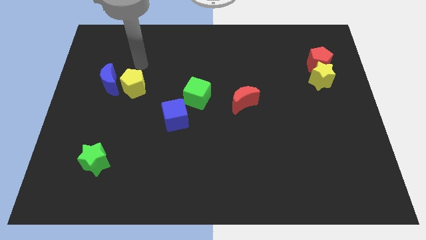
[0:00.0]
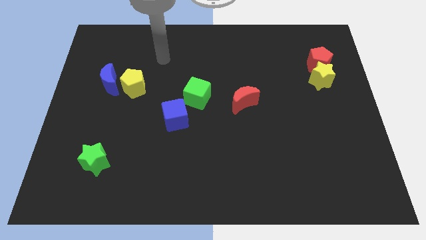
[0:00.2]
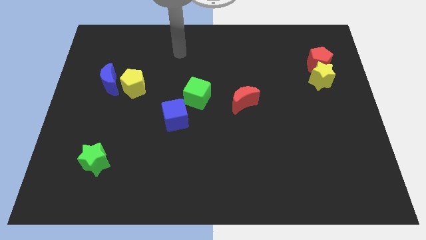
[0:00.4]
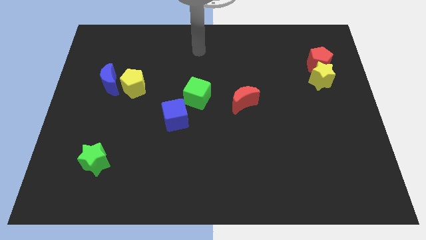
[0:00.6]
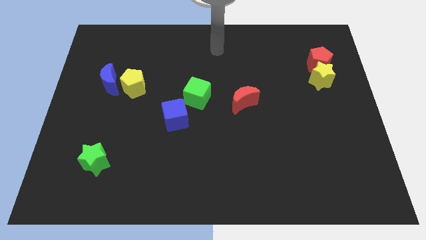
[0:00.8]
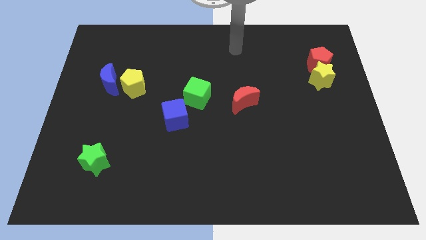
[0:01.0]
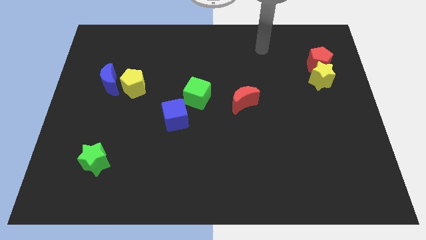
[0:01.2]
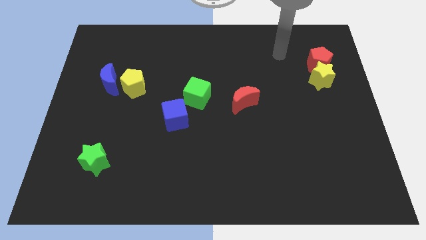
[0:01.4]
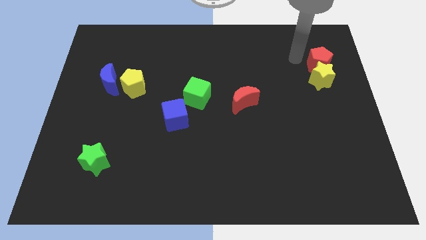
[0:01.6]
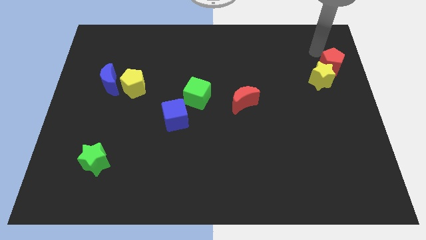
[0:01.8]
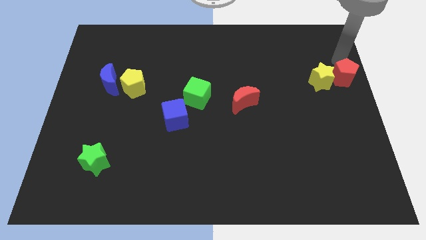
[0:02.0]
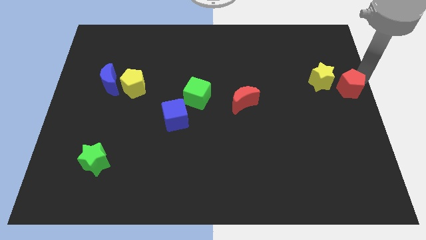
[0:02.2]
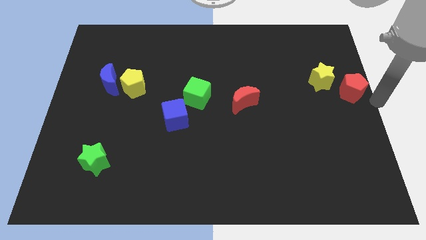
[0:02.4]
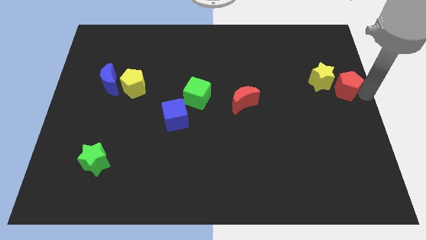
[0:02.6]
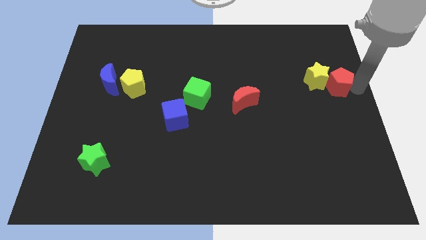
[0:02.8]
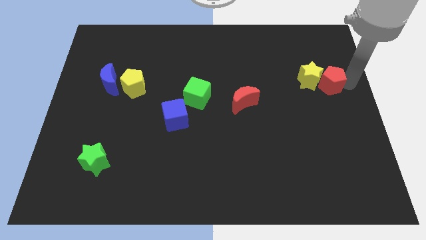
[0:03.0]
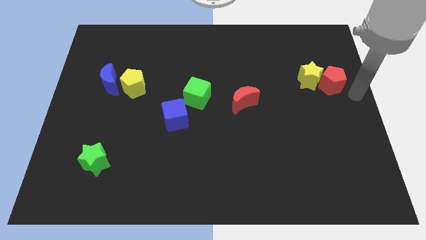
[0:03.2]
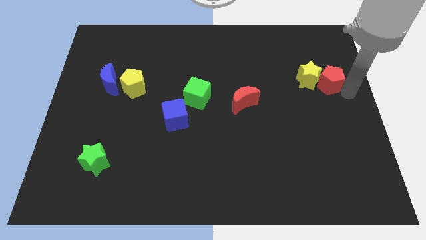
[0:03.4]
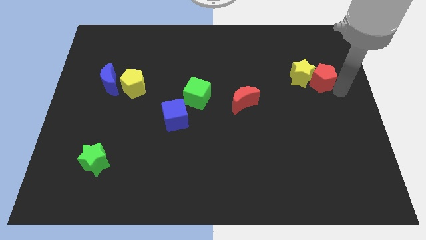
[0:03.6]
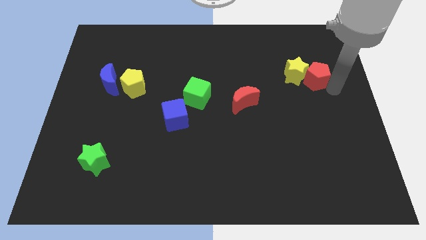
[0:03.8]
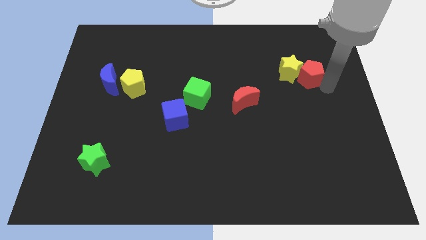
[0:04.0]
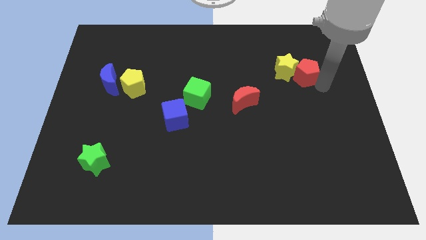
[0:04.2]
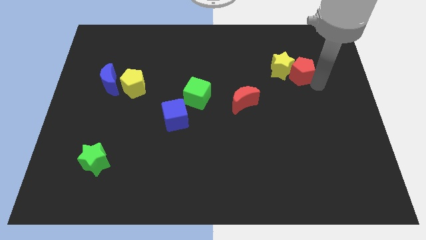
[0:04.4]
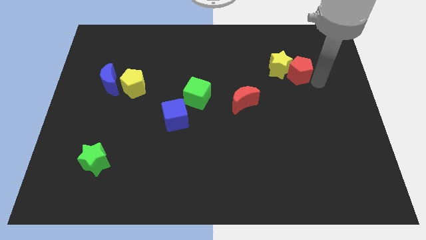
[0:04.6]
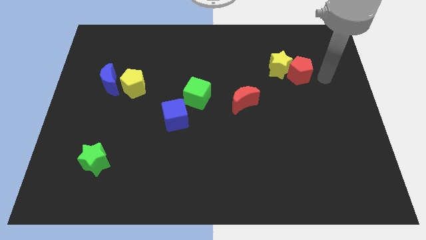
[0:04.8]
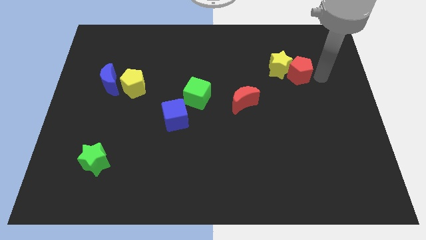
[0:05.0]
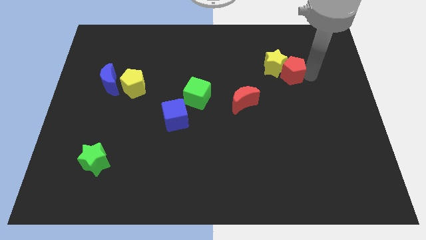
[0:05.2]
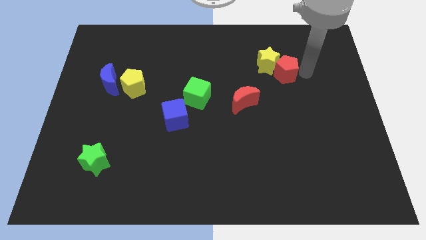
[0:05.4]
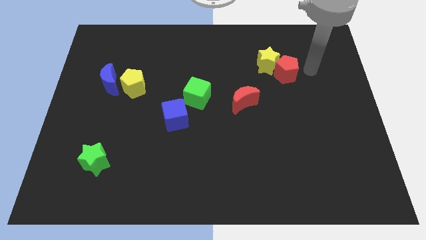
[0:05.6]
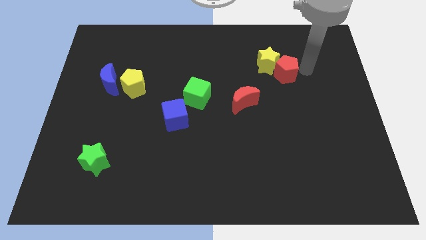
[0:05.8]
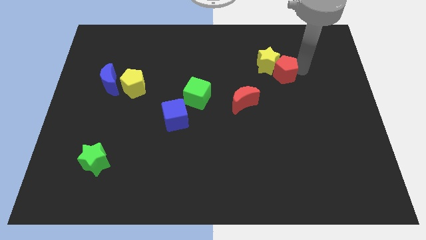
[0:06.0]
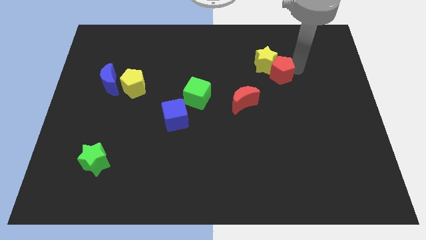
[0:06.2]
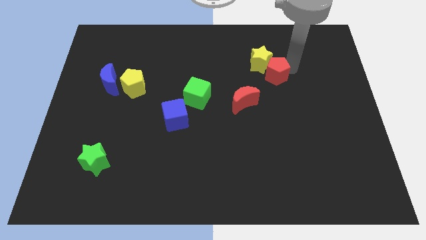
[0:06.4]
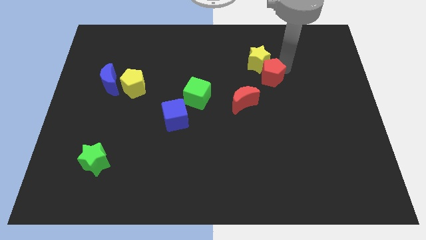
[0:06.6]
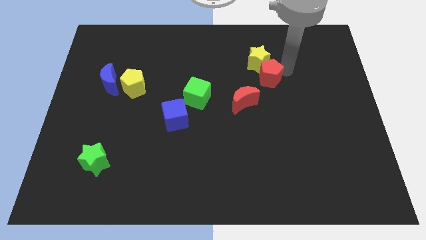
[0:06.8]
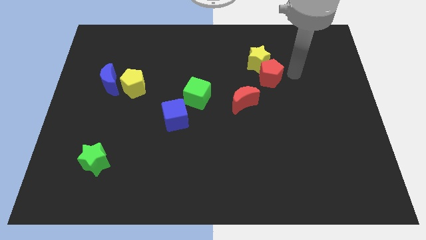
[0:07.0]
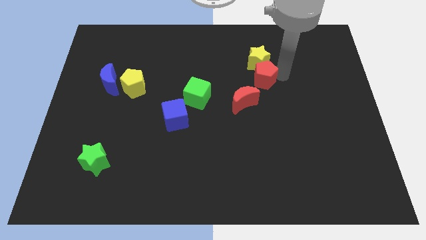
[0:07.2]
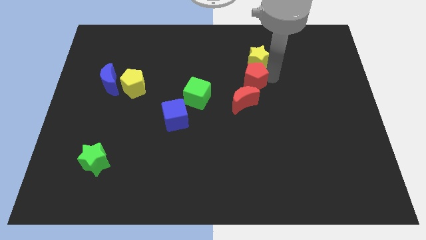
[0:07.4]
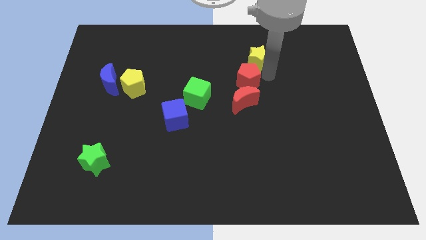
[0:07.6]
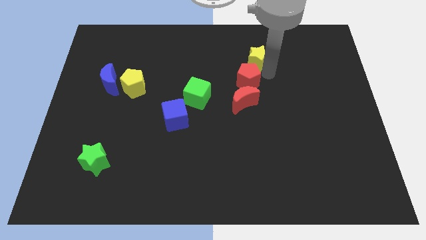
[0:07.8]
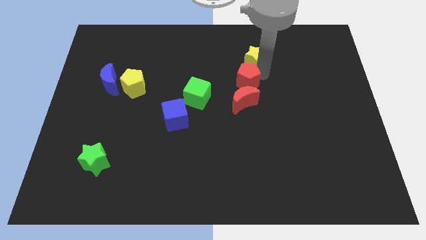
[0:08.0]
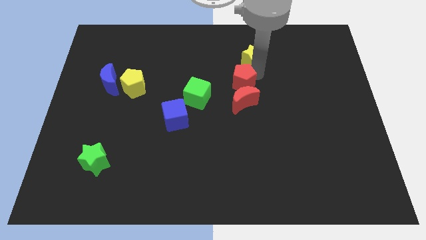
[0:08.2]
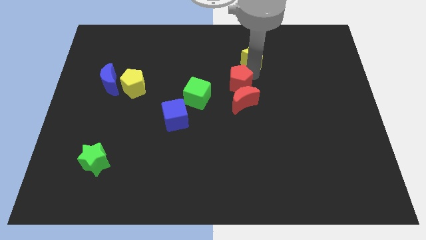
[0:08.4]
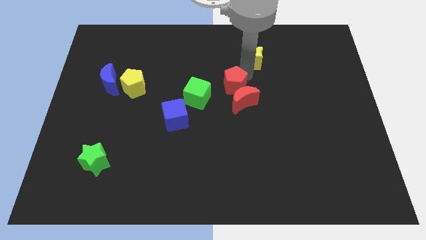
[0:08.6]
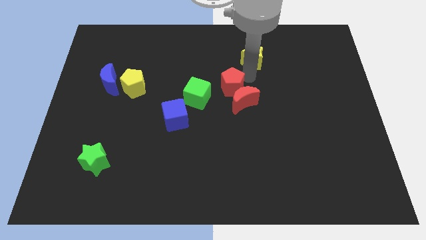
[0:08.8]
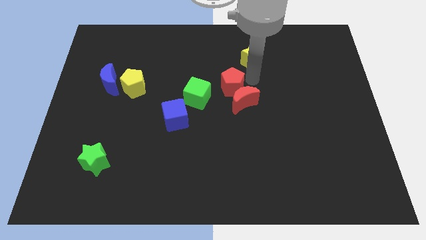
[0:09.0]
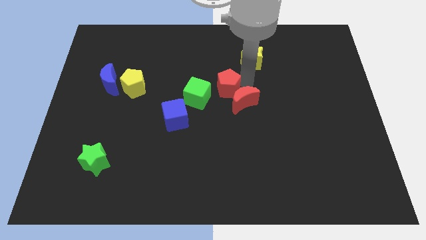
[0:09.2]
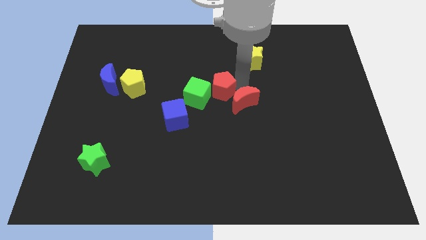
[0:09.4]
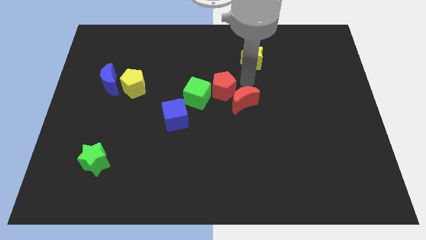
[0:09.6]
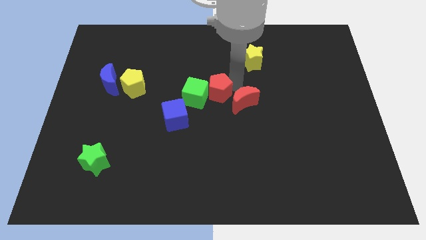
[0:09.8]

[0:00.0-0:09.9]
slide the red pentagon to the green cube

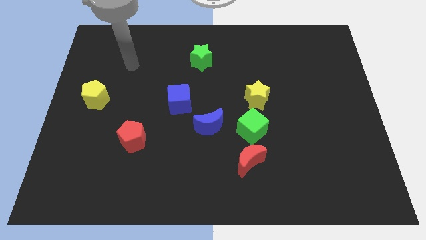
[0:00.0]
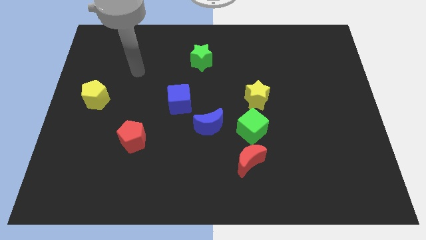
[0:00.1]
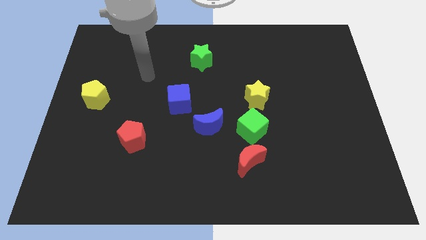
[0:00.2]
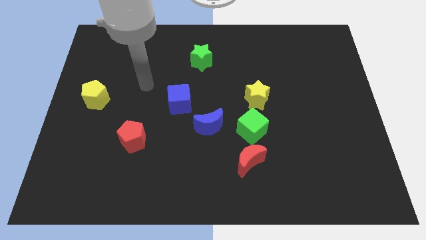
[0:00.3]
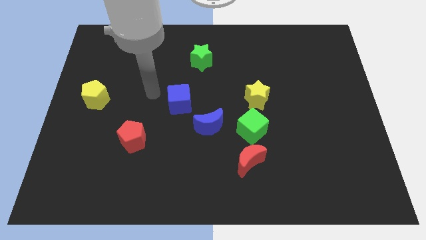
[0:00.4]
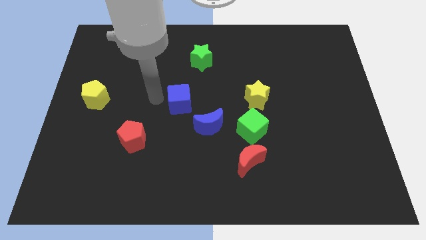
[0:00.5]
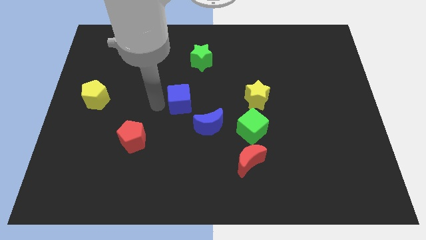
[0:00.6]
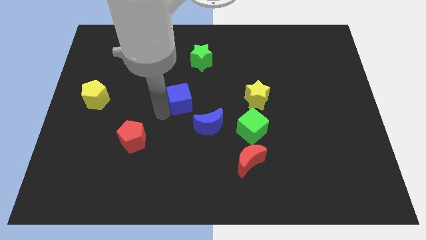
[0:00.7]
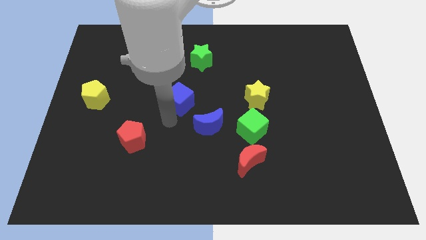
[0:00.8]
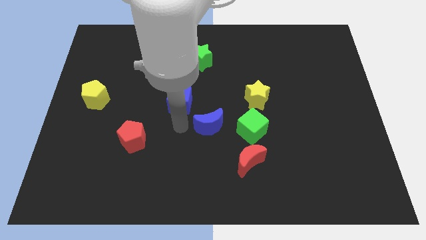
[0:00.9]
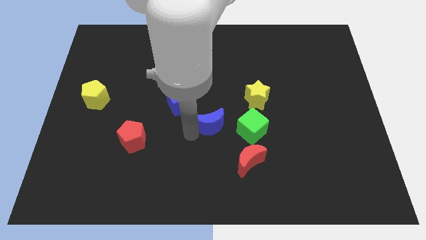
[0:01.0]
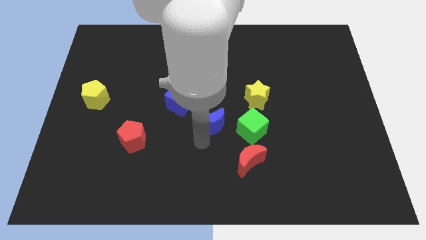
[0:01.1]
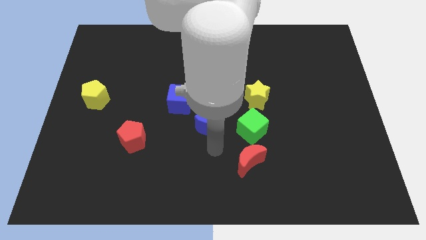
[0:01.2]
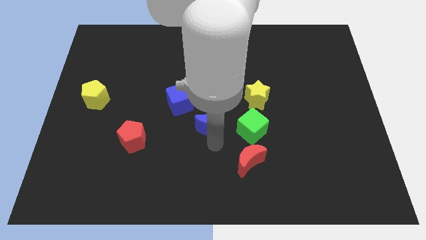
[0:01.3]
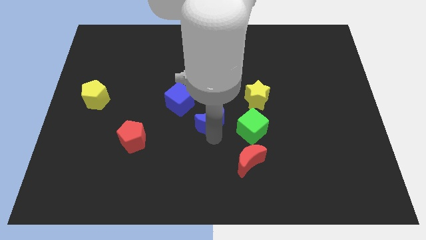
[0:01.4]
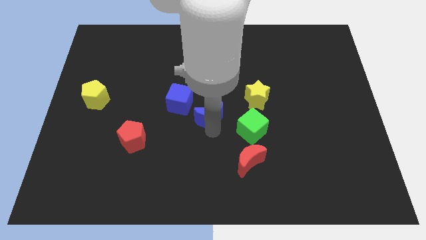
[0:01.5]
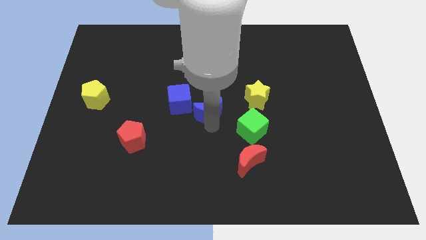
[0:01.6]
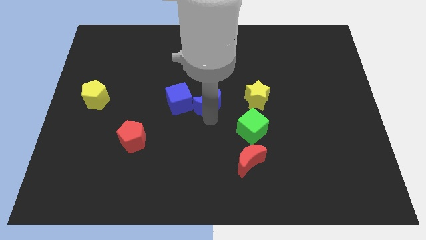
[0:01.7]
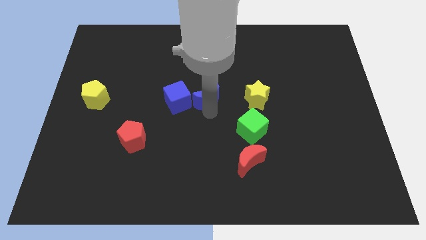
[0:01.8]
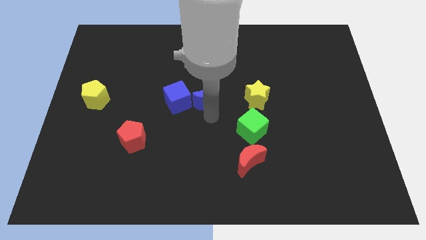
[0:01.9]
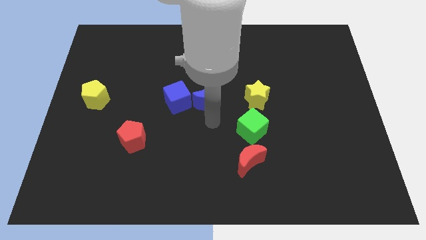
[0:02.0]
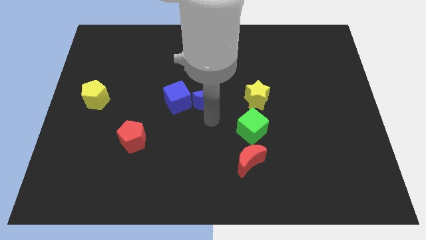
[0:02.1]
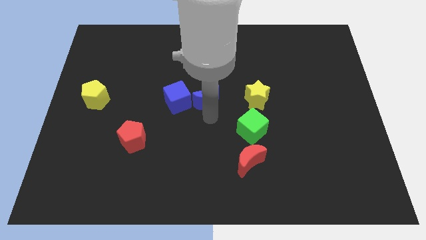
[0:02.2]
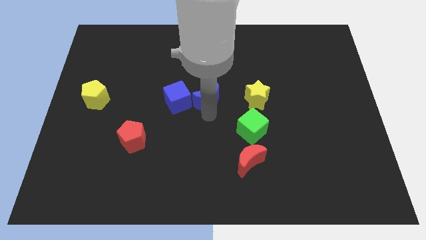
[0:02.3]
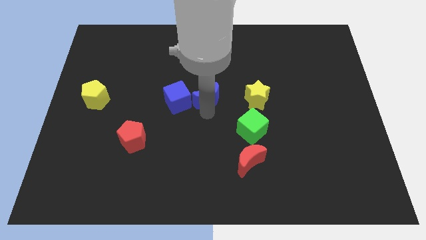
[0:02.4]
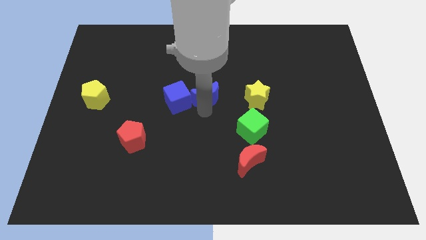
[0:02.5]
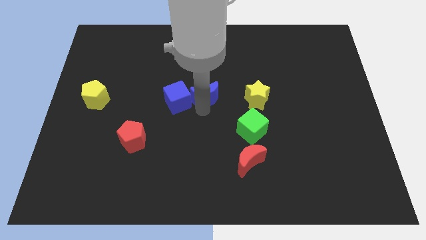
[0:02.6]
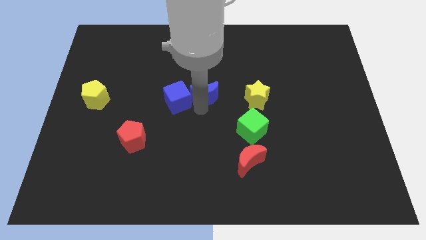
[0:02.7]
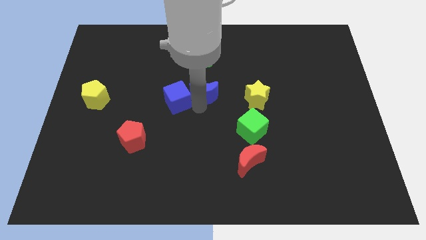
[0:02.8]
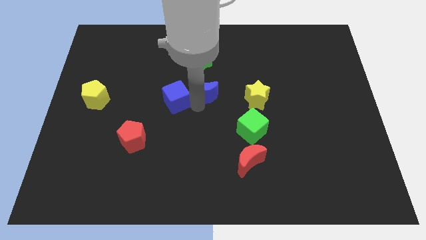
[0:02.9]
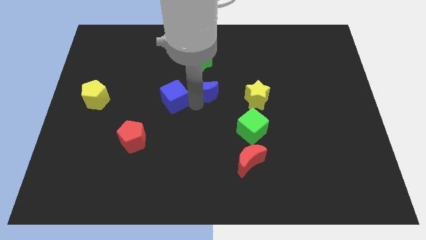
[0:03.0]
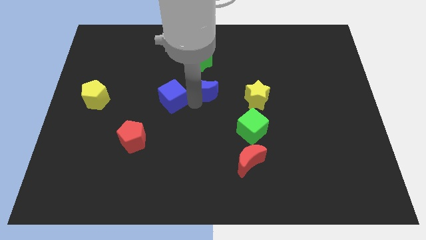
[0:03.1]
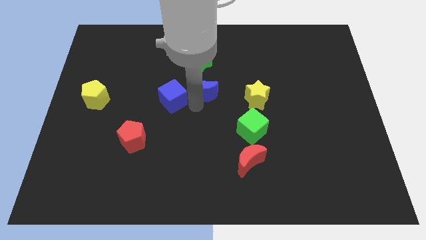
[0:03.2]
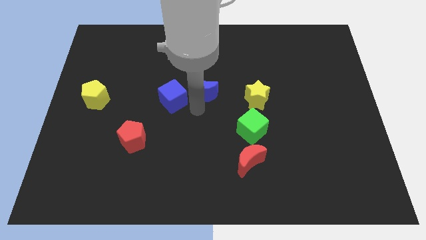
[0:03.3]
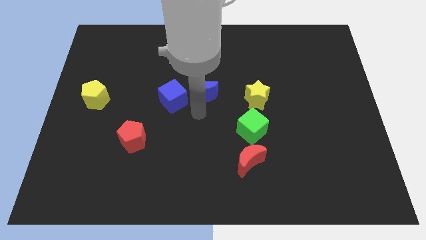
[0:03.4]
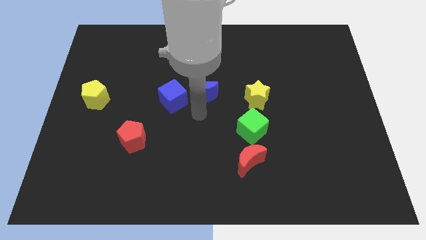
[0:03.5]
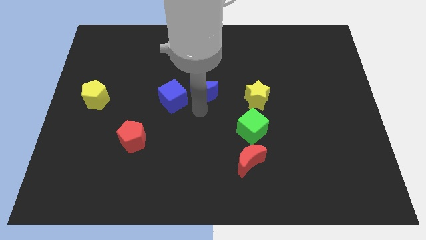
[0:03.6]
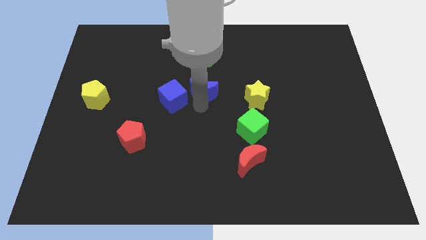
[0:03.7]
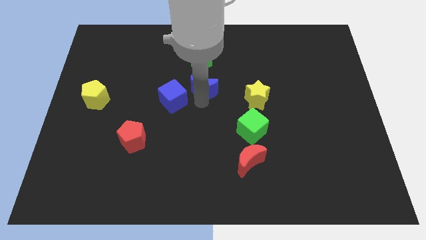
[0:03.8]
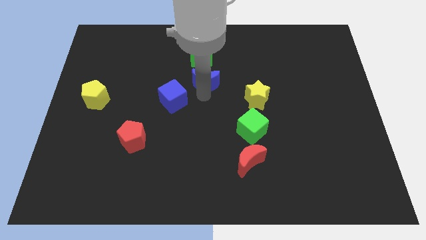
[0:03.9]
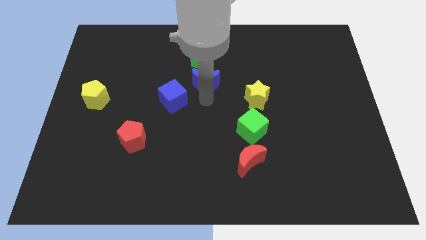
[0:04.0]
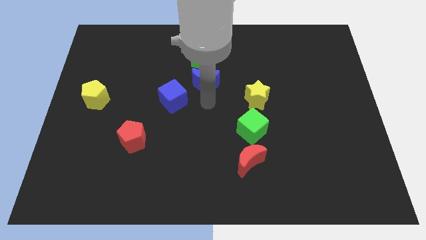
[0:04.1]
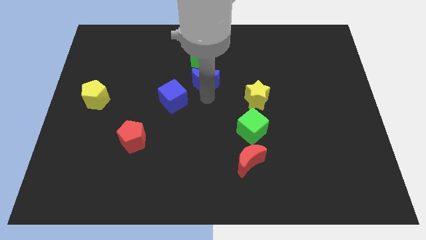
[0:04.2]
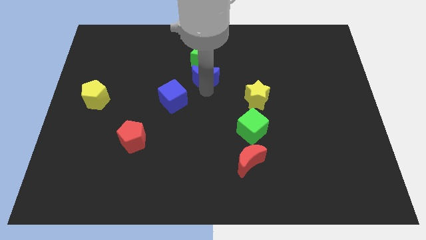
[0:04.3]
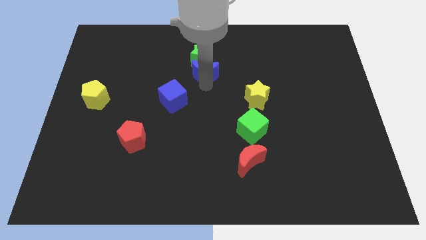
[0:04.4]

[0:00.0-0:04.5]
slide the blue moon towards the green star
